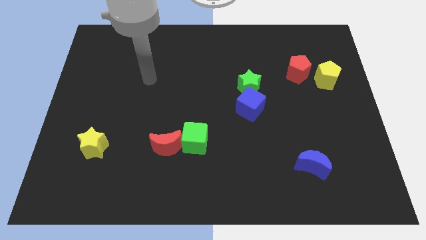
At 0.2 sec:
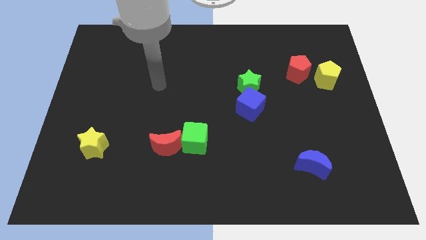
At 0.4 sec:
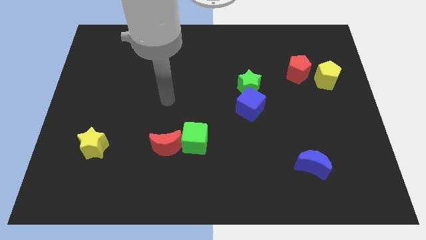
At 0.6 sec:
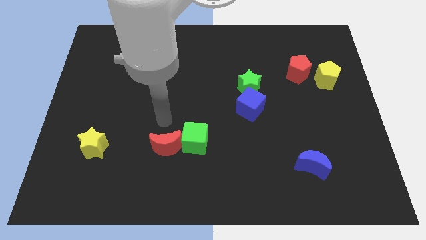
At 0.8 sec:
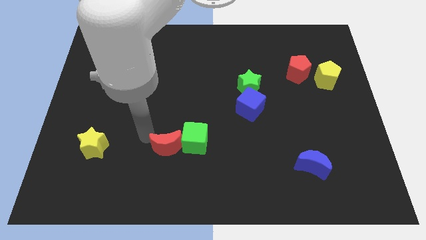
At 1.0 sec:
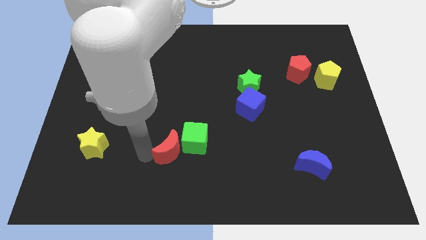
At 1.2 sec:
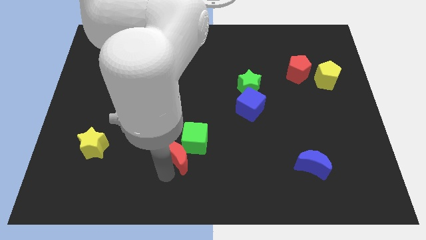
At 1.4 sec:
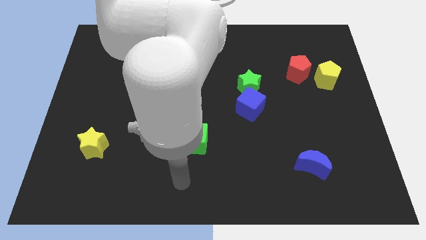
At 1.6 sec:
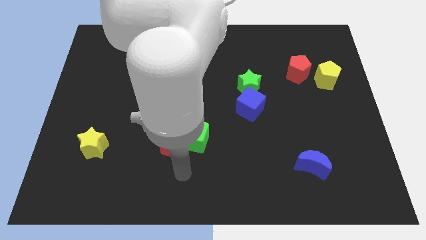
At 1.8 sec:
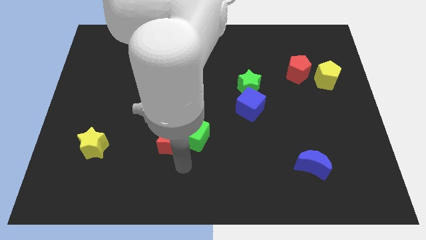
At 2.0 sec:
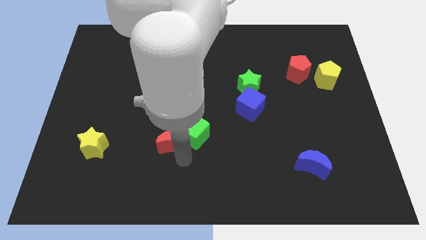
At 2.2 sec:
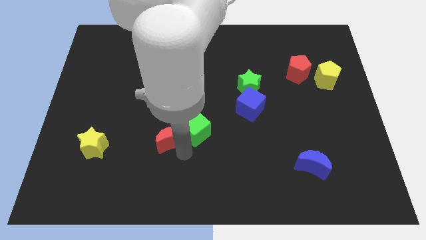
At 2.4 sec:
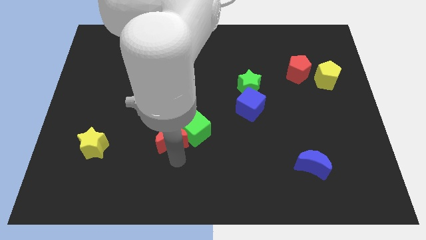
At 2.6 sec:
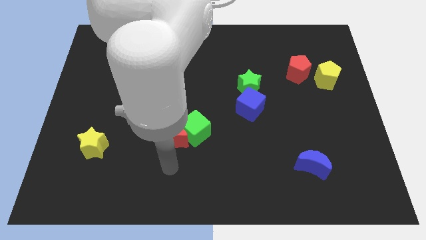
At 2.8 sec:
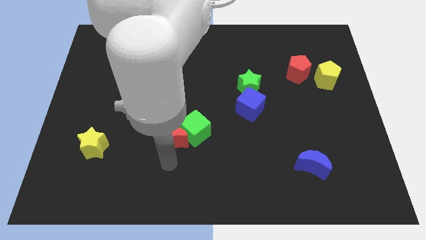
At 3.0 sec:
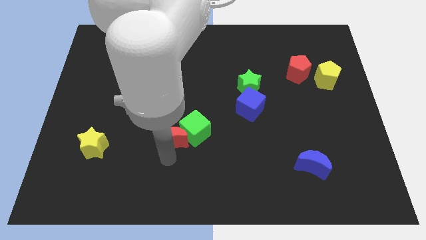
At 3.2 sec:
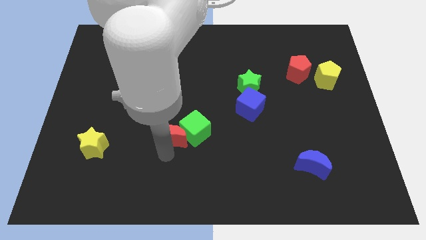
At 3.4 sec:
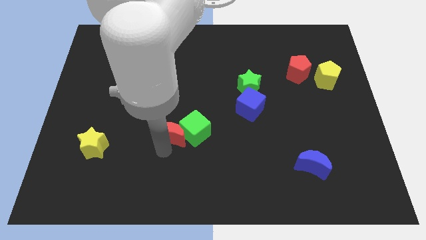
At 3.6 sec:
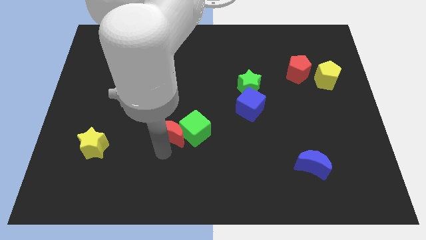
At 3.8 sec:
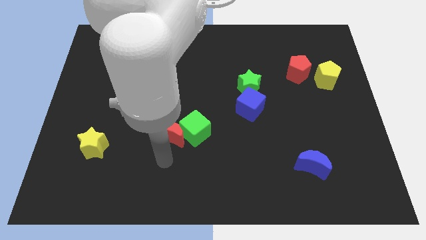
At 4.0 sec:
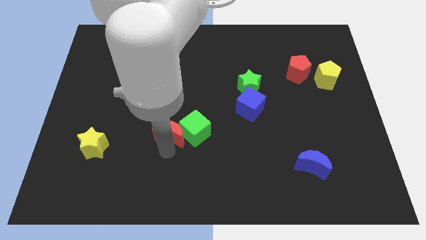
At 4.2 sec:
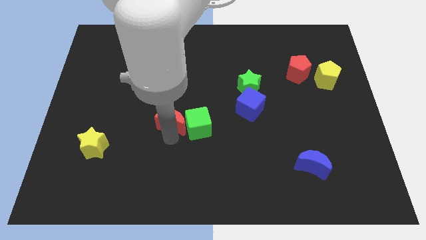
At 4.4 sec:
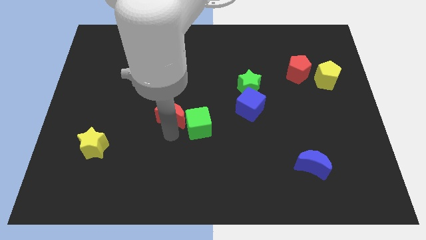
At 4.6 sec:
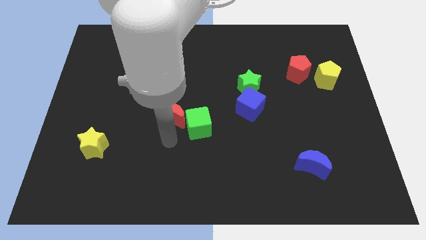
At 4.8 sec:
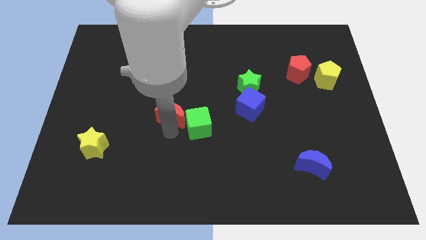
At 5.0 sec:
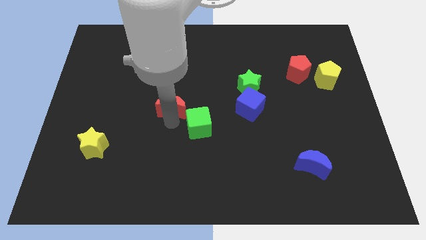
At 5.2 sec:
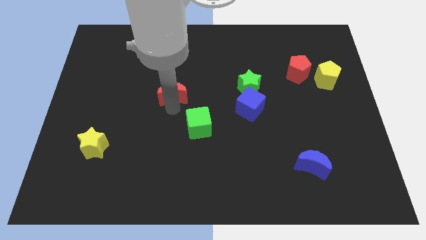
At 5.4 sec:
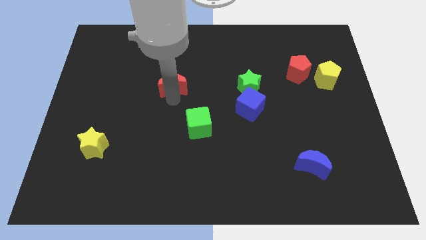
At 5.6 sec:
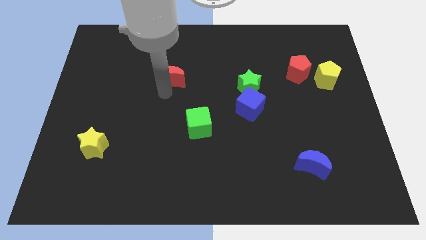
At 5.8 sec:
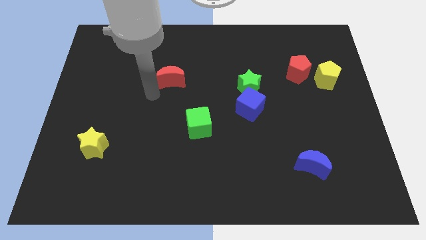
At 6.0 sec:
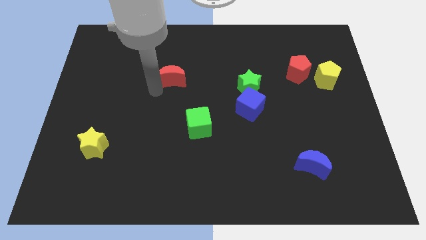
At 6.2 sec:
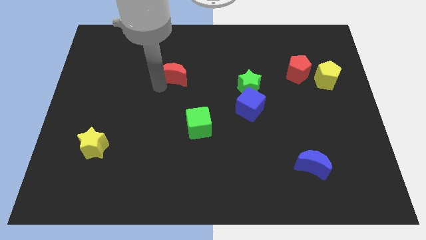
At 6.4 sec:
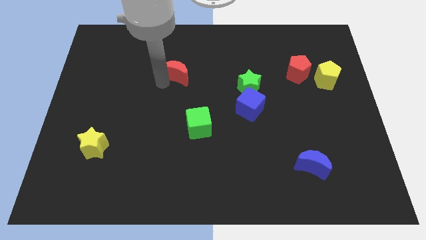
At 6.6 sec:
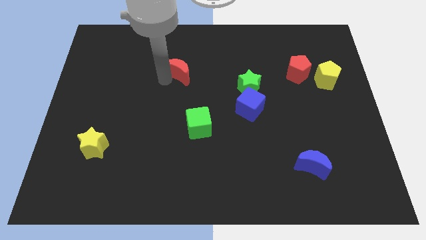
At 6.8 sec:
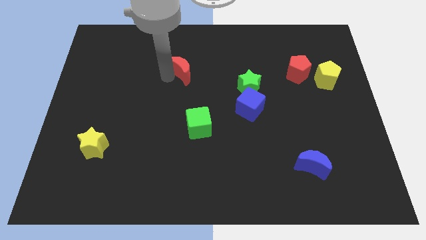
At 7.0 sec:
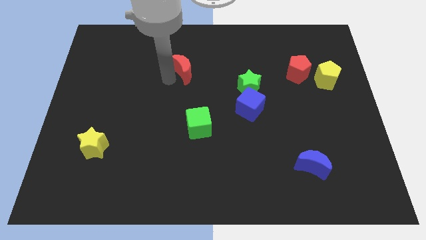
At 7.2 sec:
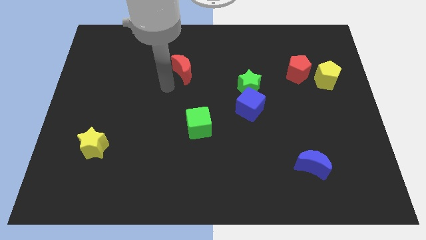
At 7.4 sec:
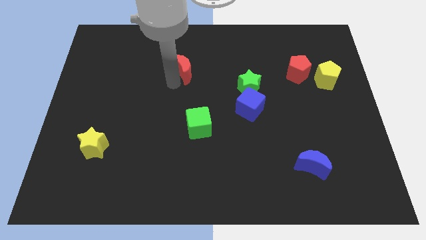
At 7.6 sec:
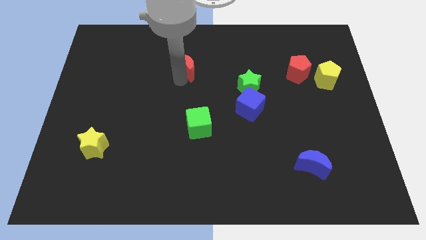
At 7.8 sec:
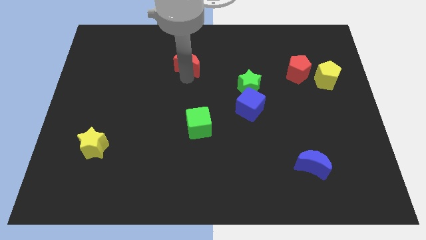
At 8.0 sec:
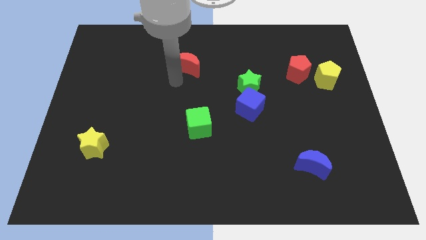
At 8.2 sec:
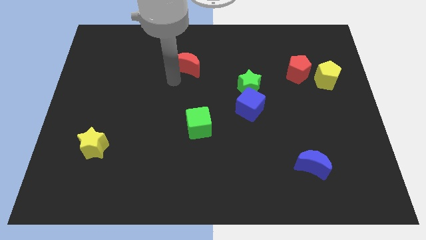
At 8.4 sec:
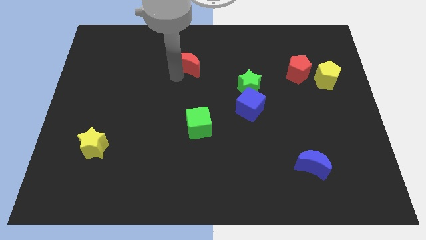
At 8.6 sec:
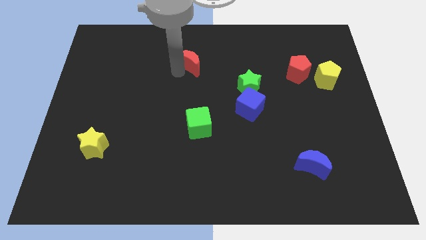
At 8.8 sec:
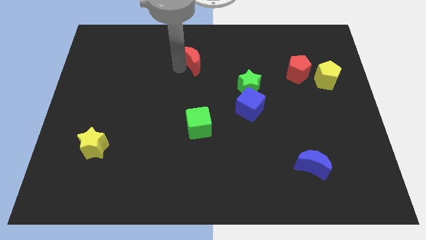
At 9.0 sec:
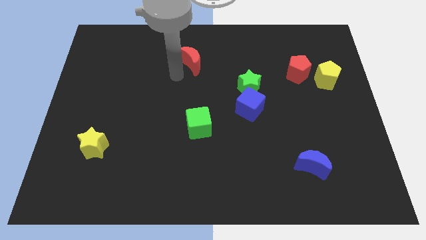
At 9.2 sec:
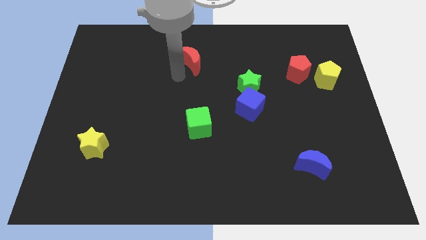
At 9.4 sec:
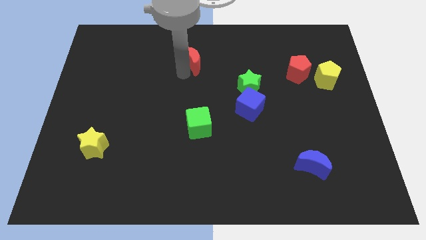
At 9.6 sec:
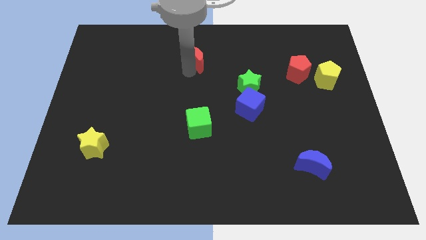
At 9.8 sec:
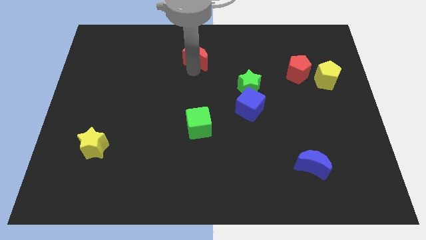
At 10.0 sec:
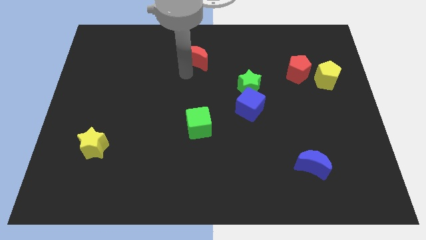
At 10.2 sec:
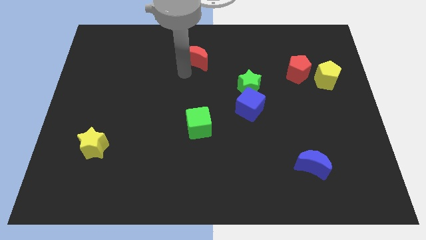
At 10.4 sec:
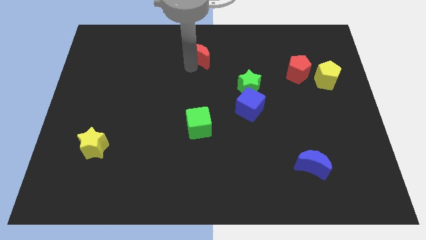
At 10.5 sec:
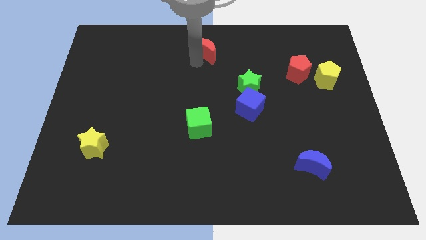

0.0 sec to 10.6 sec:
put the red moon to the towards your base

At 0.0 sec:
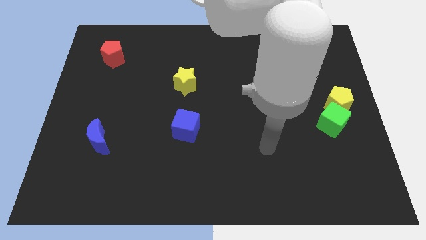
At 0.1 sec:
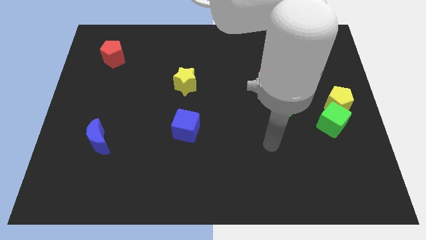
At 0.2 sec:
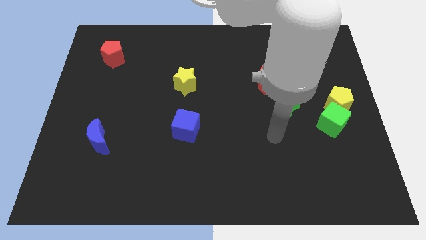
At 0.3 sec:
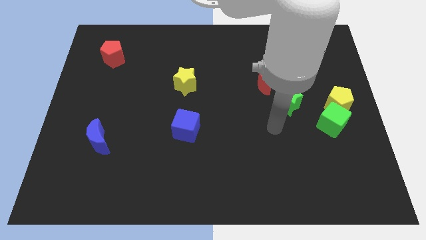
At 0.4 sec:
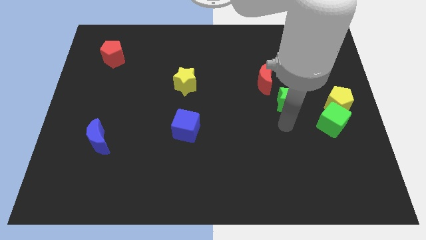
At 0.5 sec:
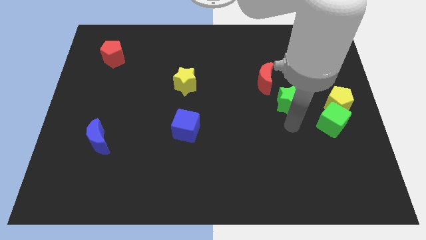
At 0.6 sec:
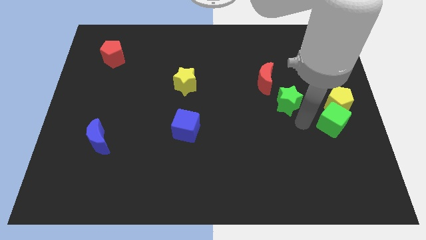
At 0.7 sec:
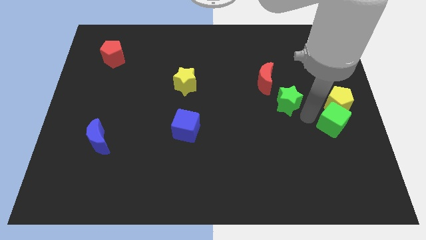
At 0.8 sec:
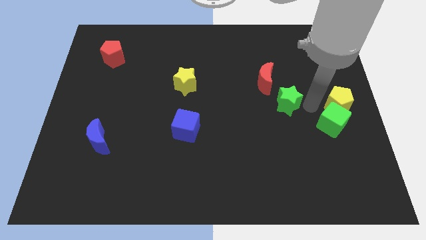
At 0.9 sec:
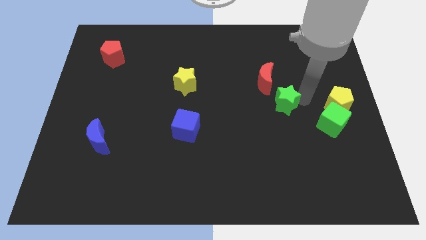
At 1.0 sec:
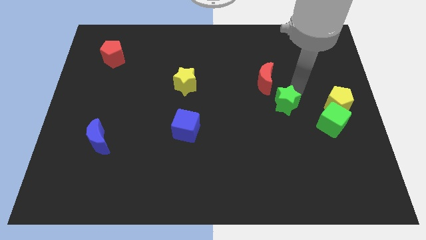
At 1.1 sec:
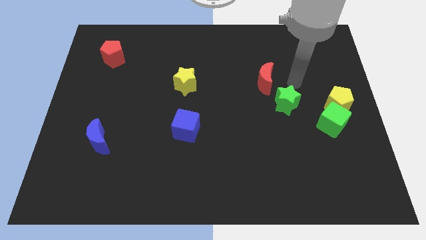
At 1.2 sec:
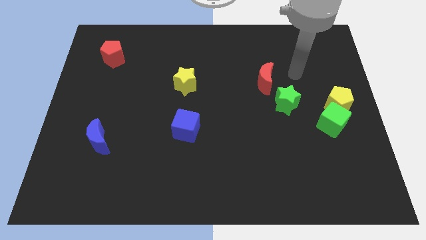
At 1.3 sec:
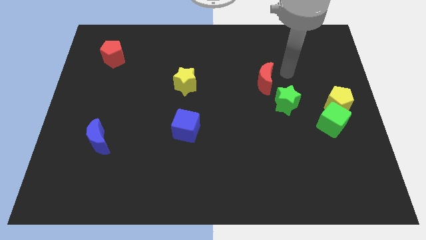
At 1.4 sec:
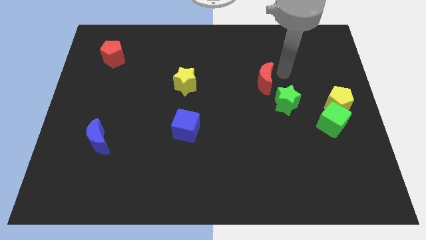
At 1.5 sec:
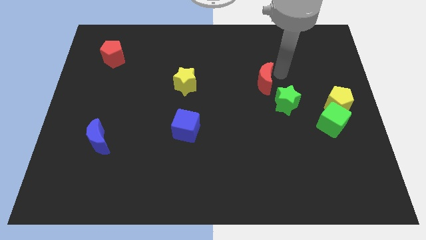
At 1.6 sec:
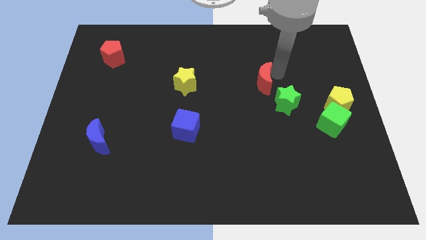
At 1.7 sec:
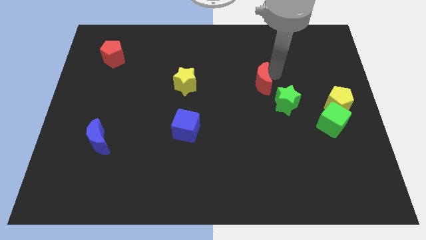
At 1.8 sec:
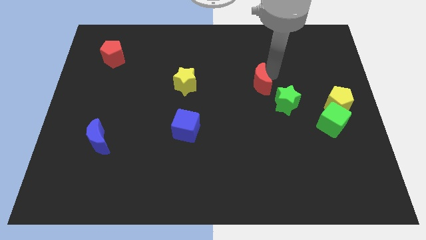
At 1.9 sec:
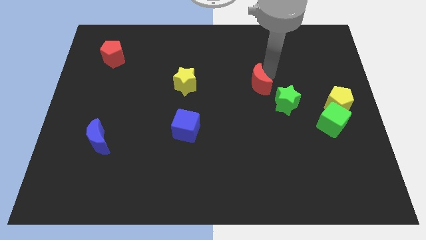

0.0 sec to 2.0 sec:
move the red moon to the middle of the board
